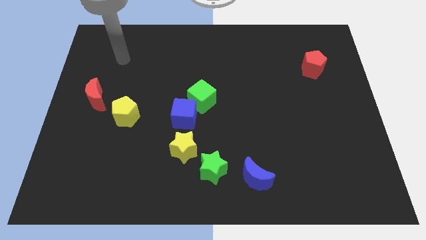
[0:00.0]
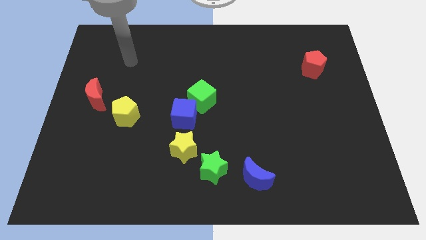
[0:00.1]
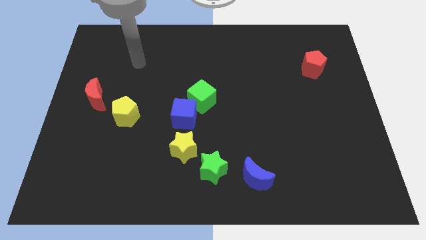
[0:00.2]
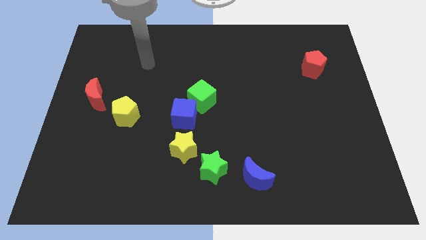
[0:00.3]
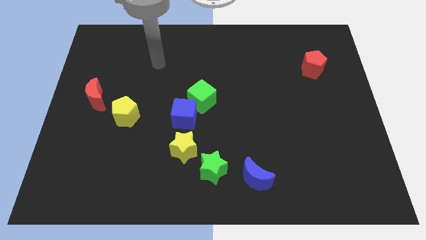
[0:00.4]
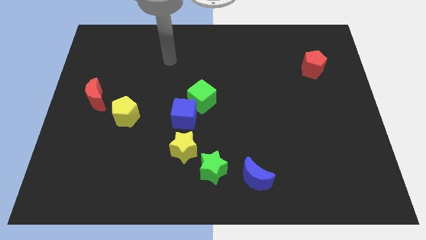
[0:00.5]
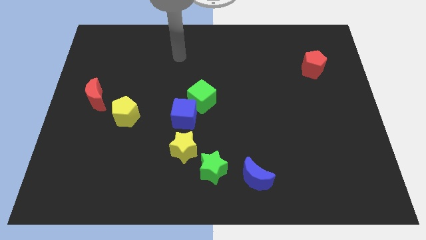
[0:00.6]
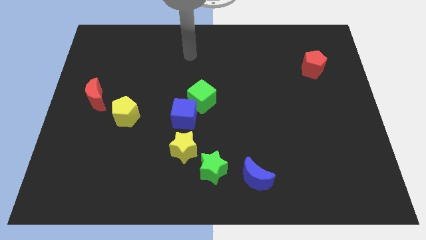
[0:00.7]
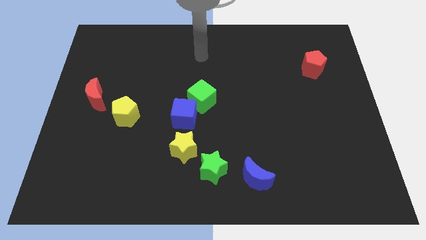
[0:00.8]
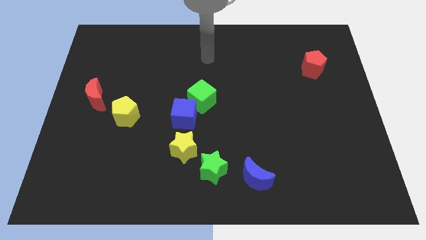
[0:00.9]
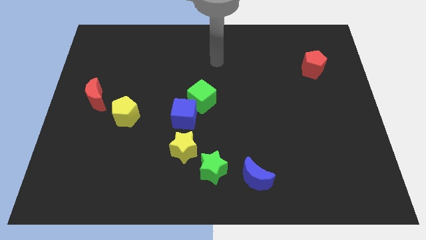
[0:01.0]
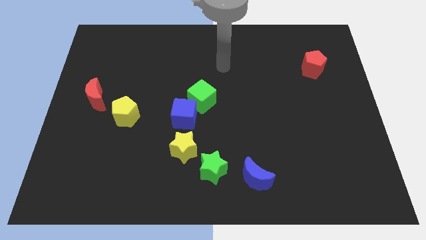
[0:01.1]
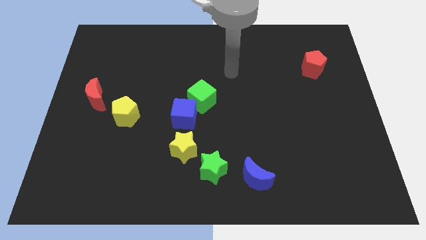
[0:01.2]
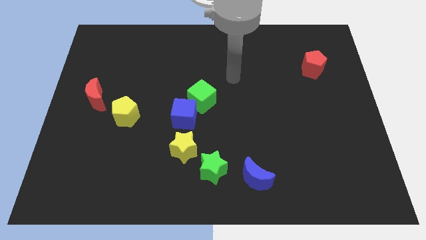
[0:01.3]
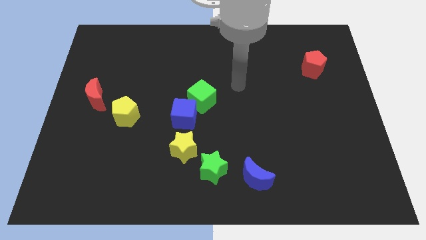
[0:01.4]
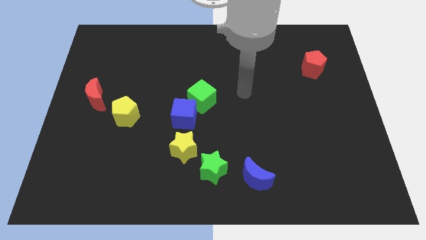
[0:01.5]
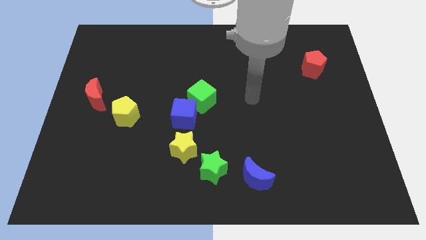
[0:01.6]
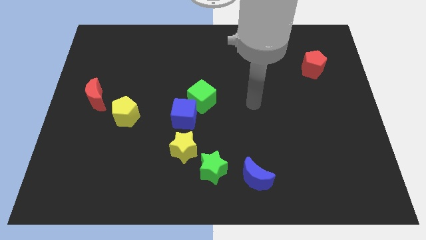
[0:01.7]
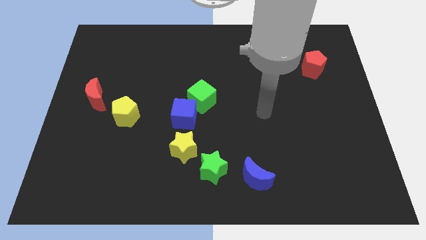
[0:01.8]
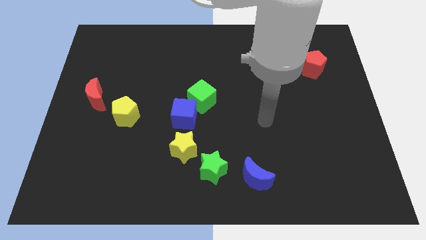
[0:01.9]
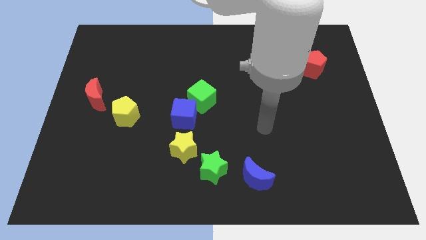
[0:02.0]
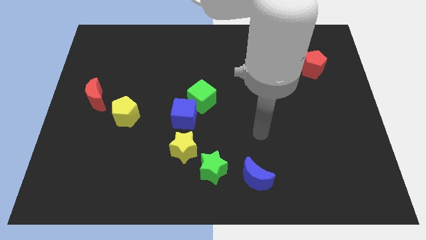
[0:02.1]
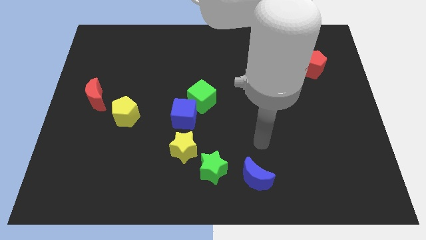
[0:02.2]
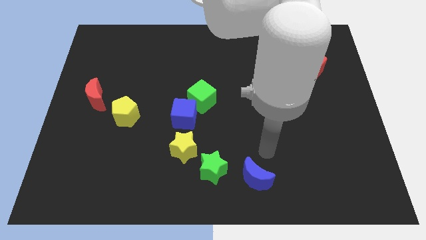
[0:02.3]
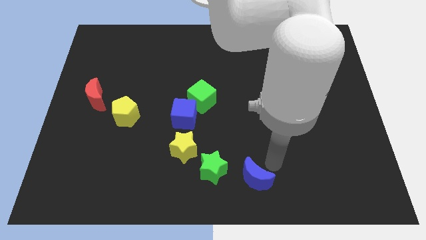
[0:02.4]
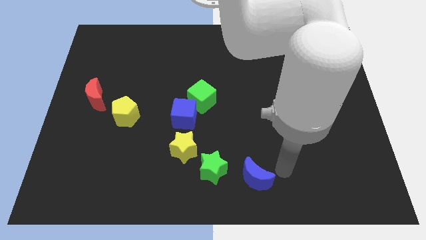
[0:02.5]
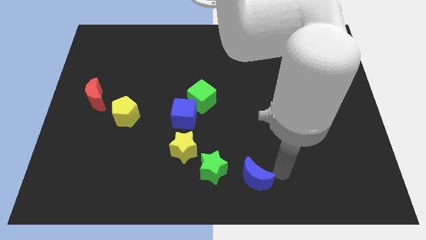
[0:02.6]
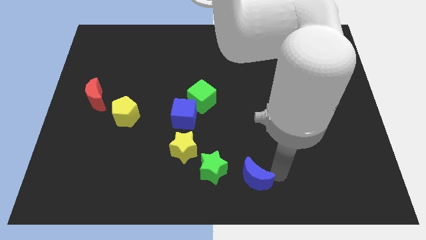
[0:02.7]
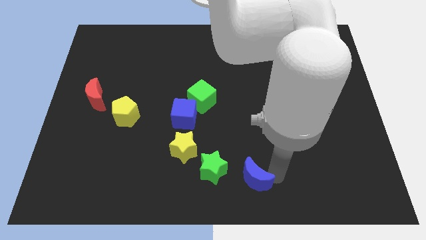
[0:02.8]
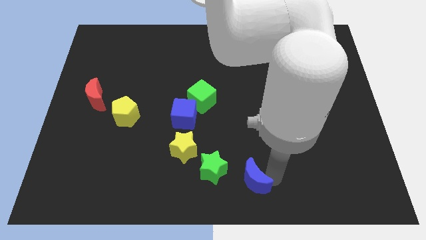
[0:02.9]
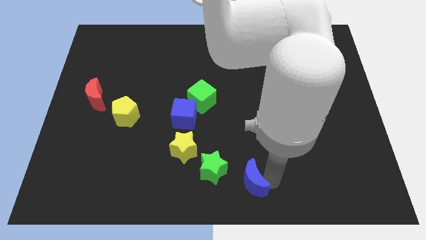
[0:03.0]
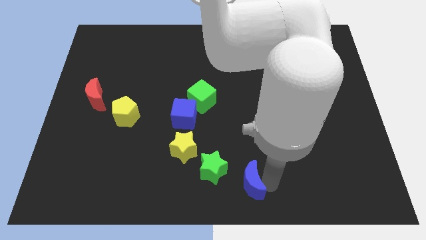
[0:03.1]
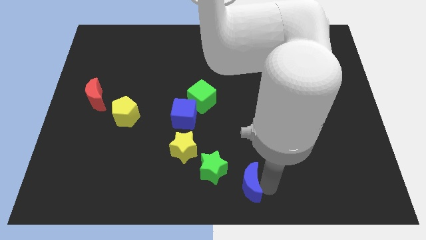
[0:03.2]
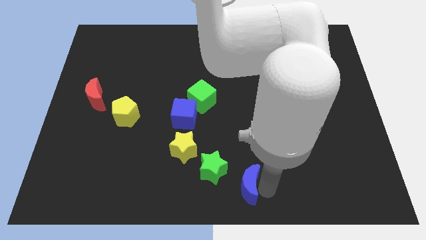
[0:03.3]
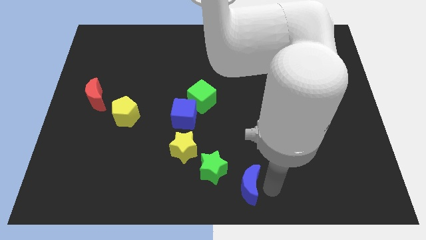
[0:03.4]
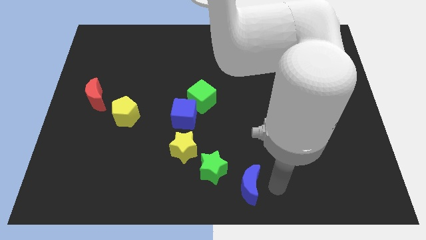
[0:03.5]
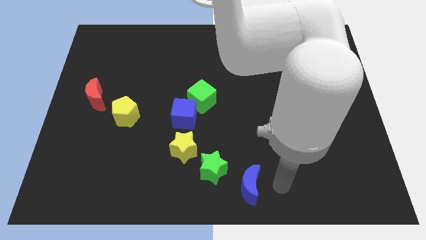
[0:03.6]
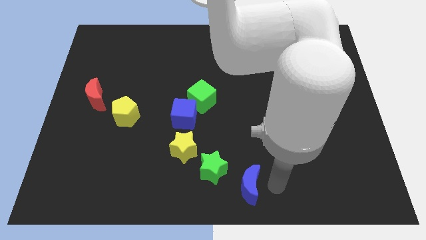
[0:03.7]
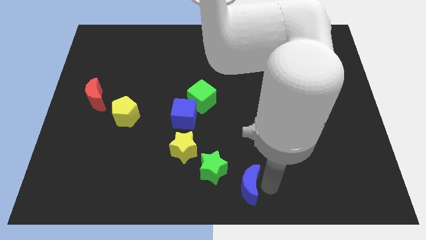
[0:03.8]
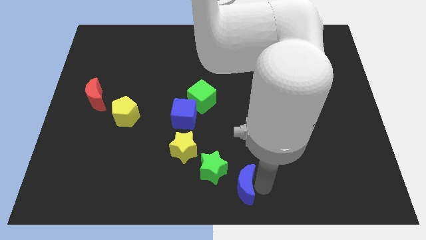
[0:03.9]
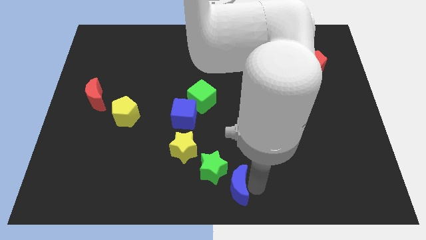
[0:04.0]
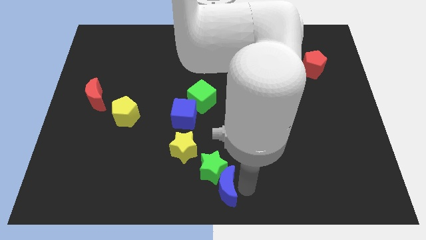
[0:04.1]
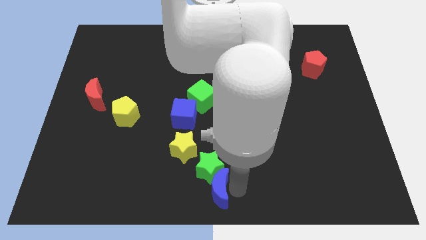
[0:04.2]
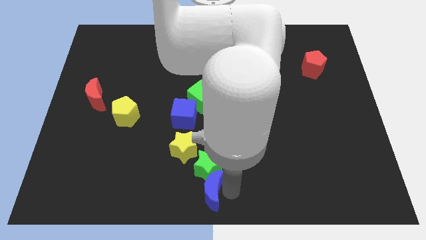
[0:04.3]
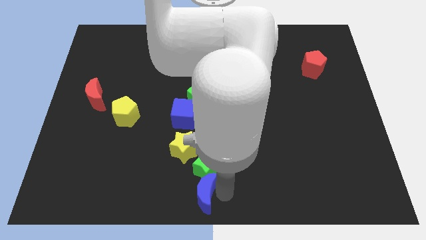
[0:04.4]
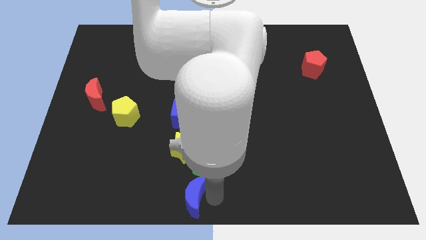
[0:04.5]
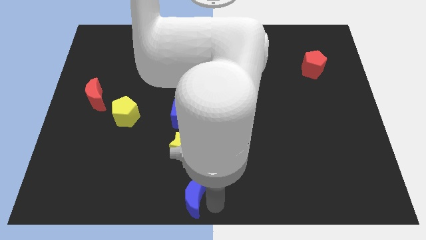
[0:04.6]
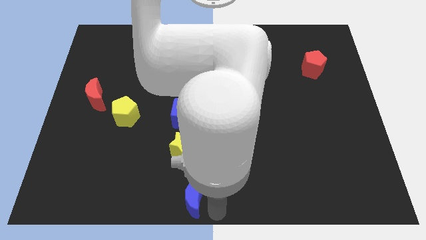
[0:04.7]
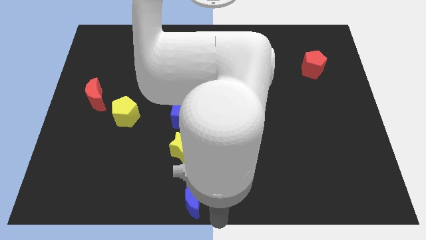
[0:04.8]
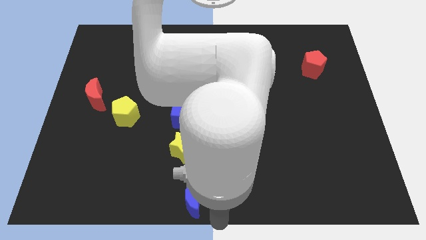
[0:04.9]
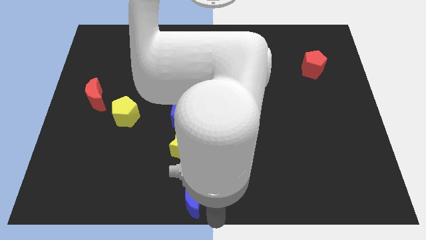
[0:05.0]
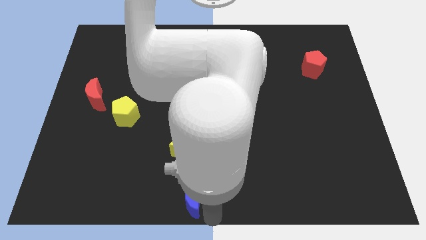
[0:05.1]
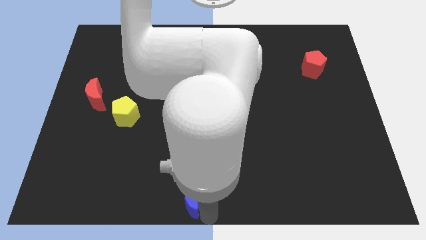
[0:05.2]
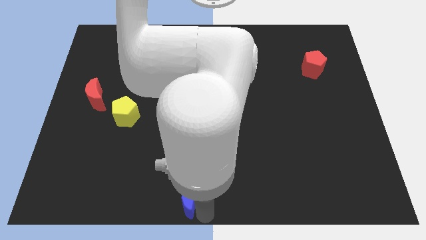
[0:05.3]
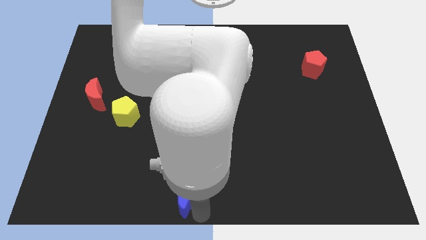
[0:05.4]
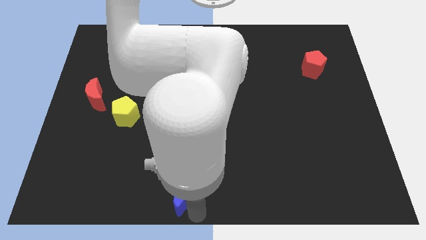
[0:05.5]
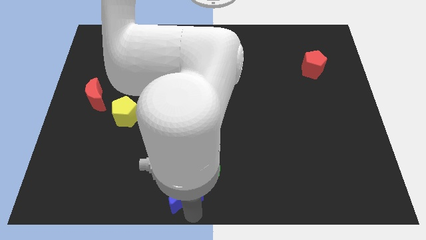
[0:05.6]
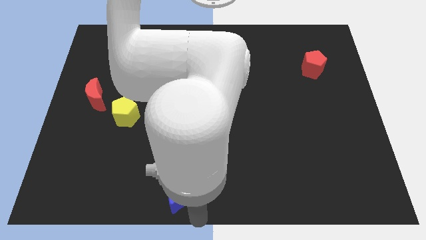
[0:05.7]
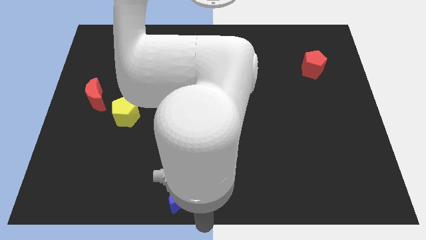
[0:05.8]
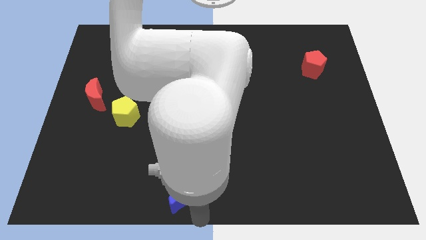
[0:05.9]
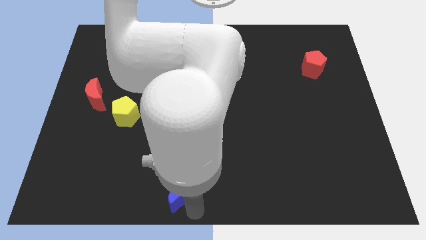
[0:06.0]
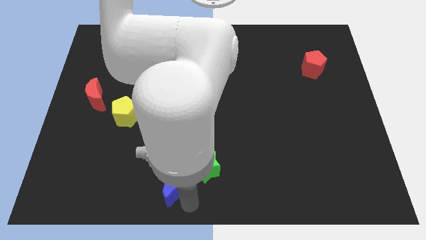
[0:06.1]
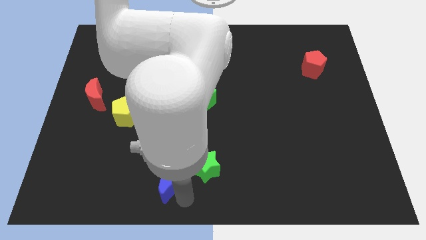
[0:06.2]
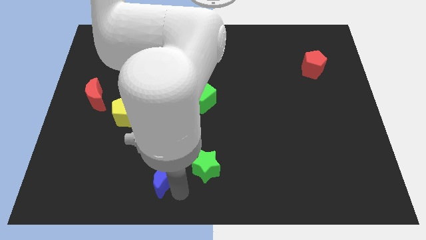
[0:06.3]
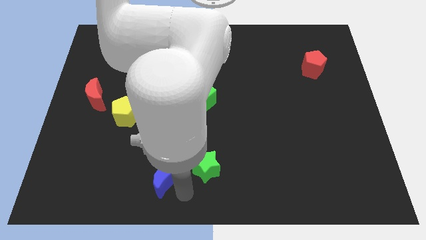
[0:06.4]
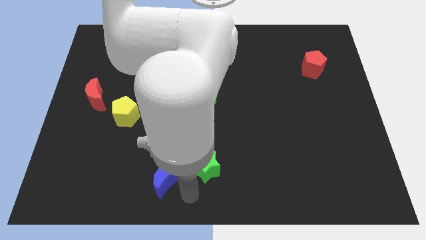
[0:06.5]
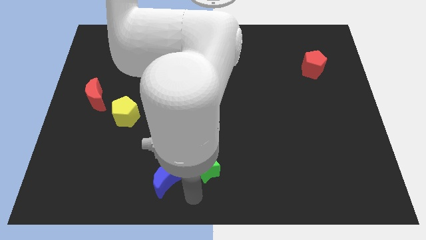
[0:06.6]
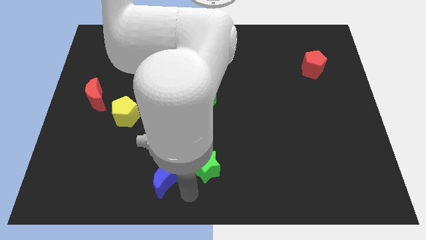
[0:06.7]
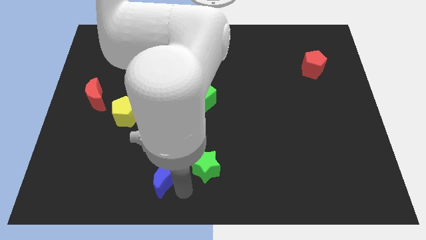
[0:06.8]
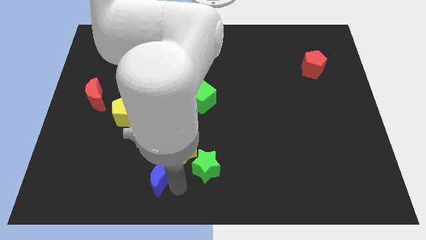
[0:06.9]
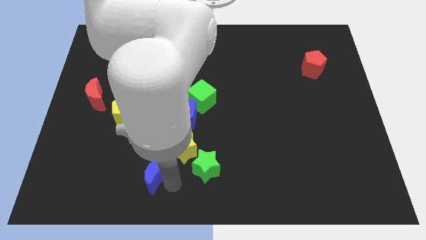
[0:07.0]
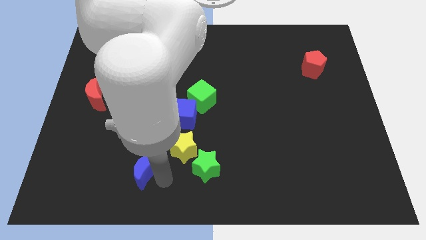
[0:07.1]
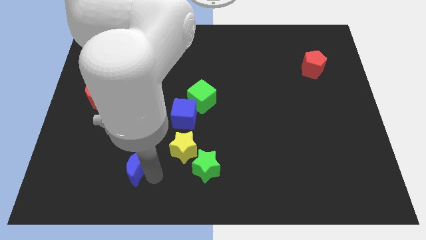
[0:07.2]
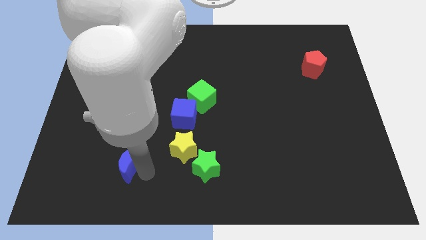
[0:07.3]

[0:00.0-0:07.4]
push the blue moon to the bottom of the yellow pentagon
